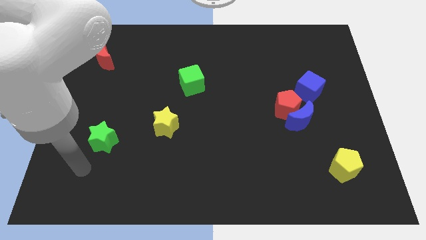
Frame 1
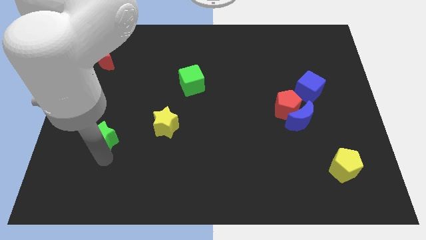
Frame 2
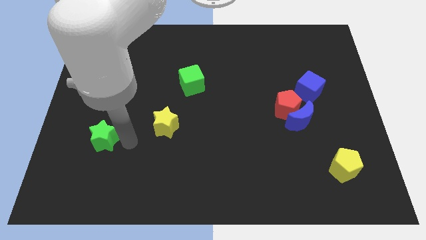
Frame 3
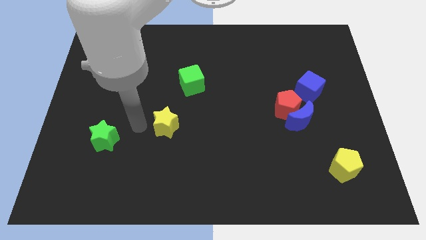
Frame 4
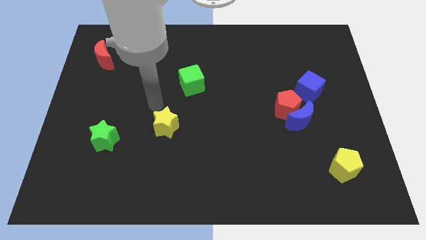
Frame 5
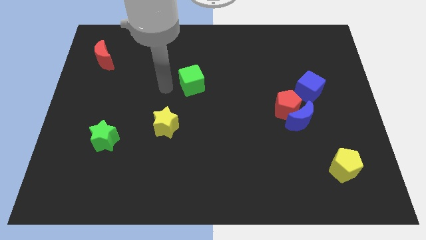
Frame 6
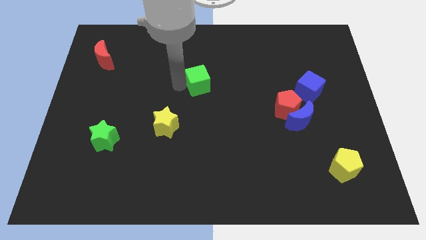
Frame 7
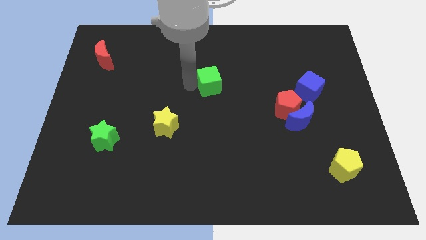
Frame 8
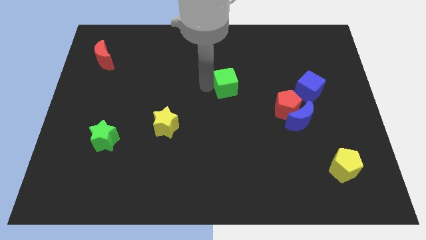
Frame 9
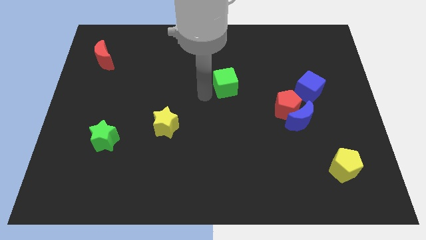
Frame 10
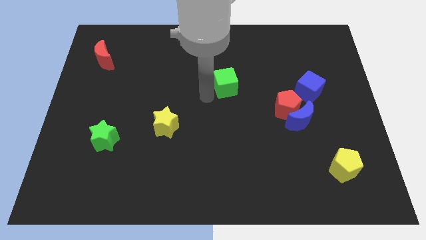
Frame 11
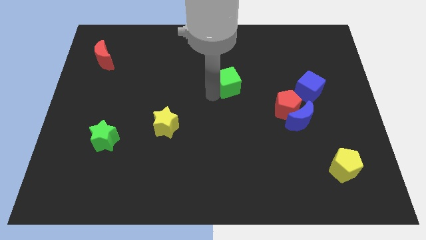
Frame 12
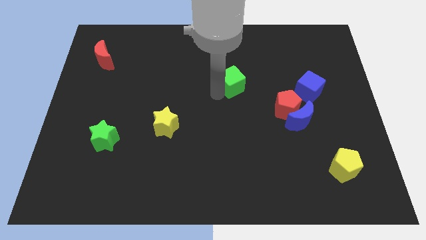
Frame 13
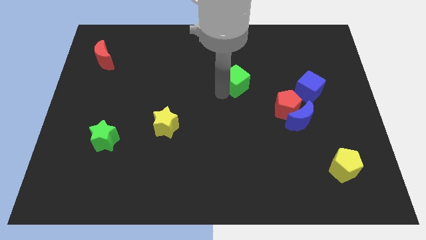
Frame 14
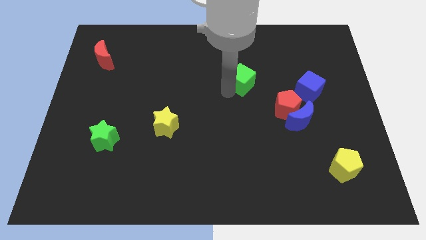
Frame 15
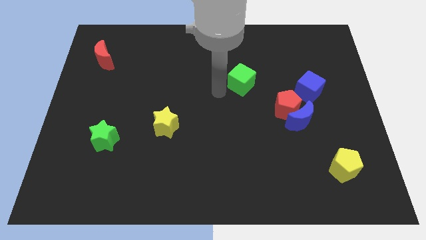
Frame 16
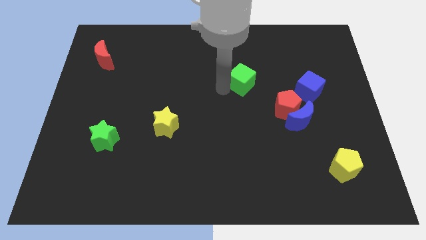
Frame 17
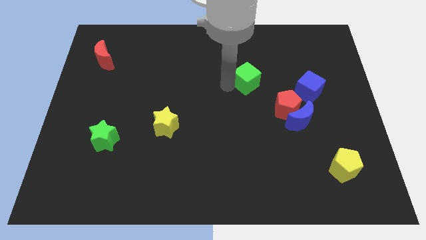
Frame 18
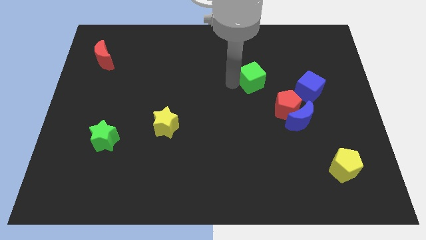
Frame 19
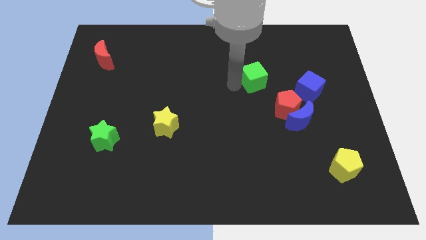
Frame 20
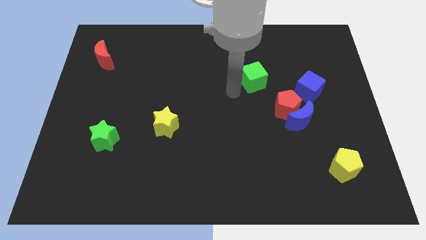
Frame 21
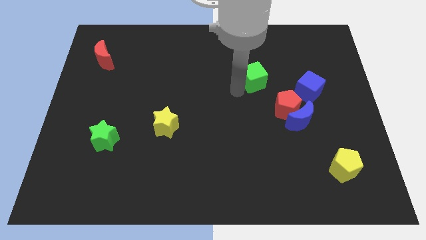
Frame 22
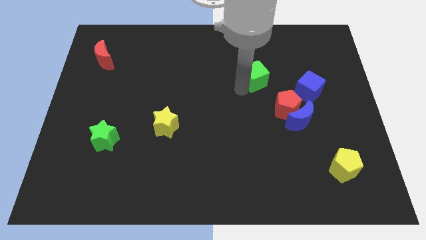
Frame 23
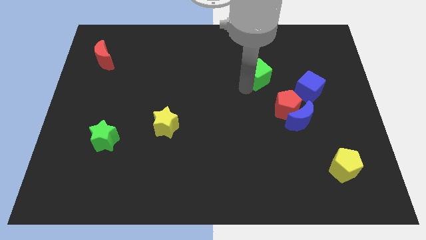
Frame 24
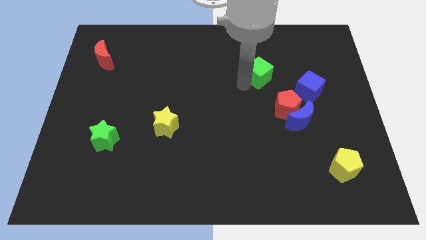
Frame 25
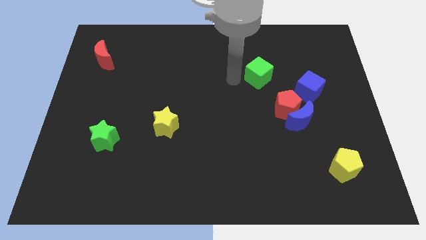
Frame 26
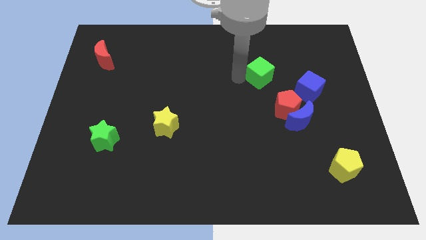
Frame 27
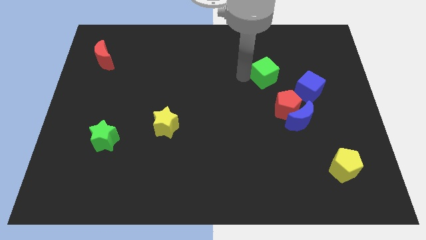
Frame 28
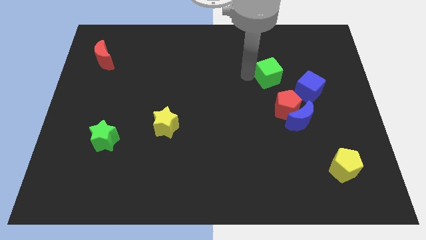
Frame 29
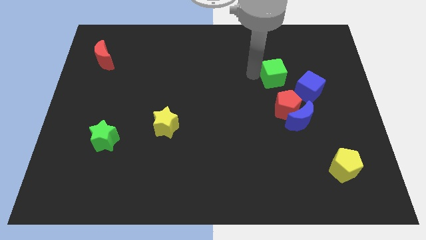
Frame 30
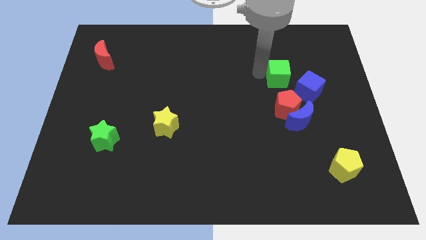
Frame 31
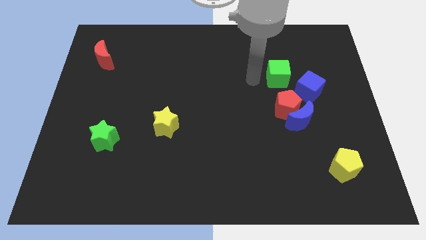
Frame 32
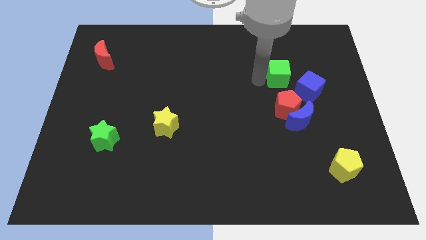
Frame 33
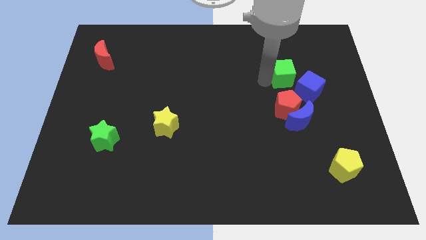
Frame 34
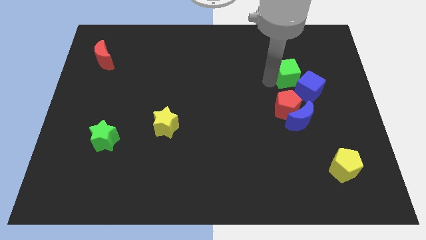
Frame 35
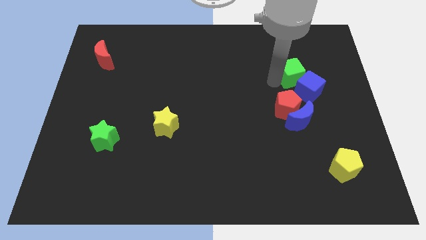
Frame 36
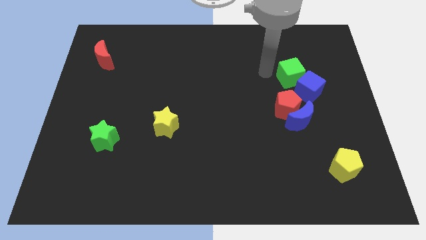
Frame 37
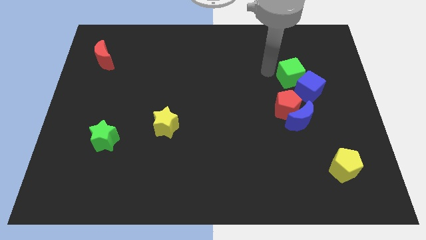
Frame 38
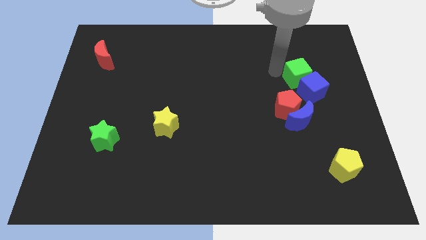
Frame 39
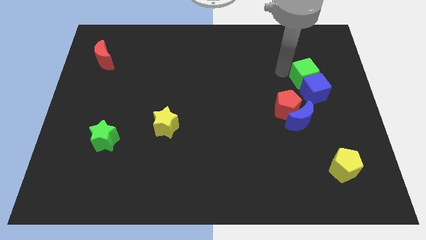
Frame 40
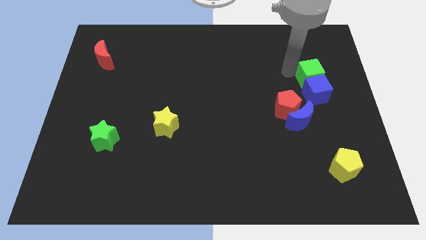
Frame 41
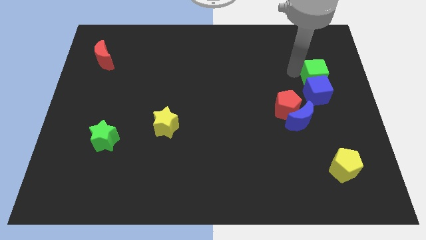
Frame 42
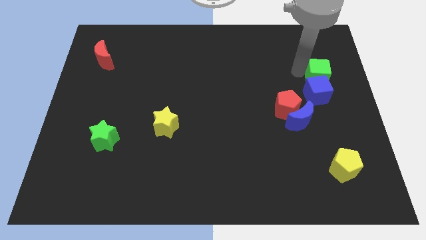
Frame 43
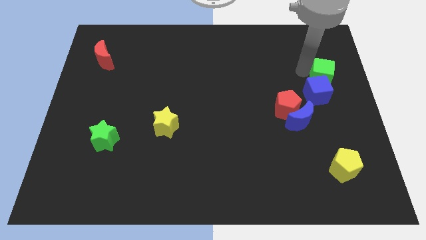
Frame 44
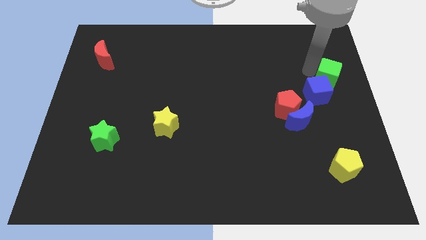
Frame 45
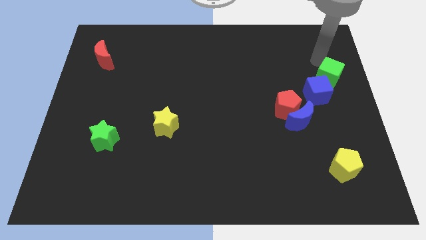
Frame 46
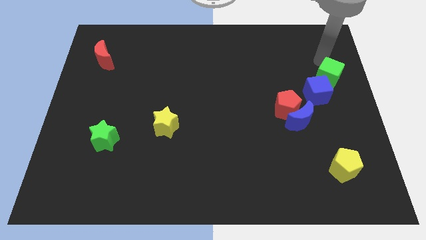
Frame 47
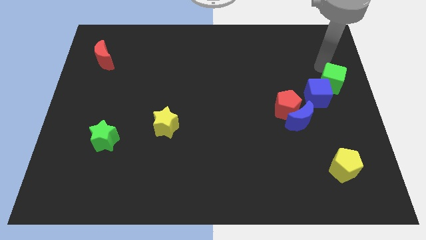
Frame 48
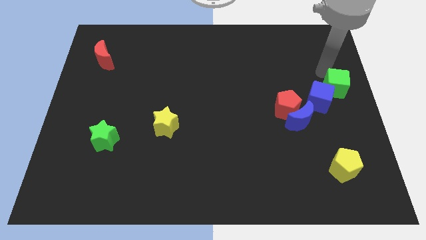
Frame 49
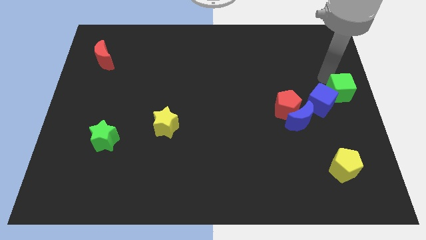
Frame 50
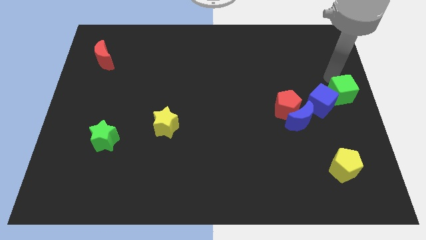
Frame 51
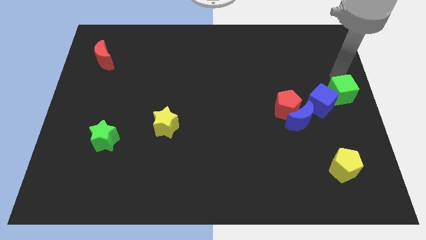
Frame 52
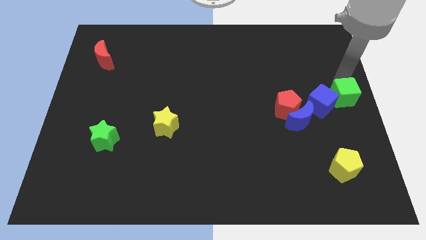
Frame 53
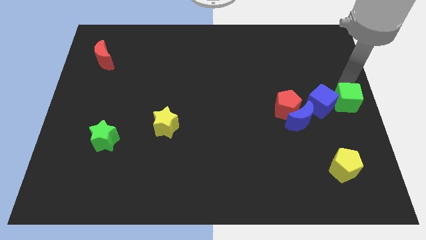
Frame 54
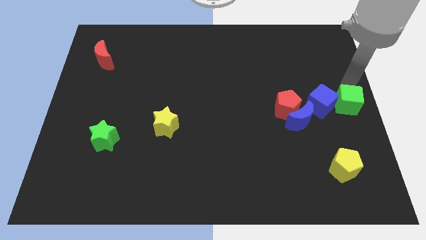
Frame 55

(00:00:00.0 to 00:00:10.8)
move the green cube to the bottom right side of the blue cube

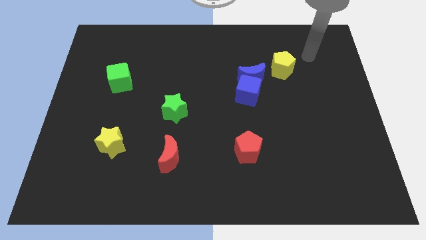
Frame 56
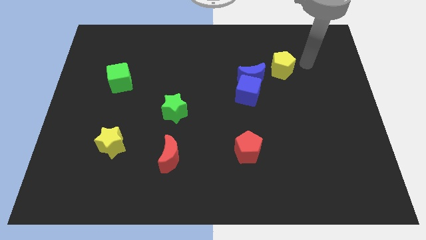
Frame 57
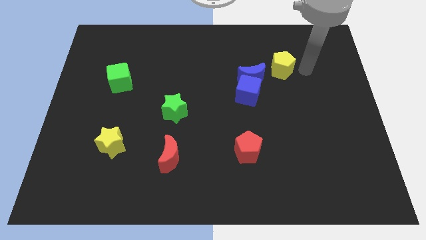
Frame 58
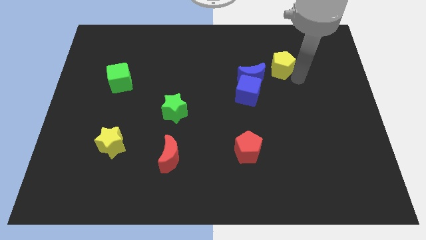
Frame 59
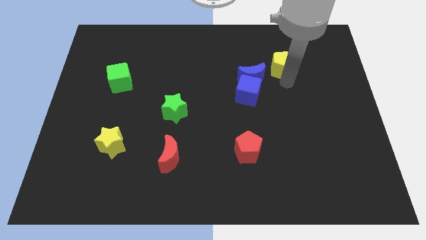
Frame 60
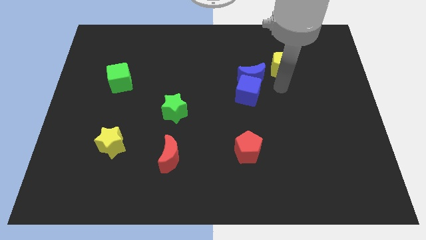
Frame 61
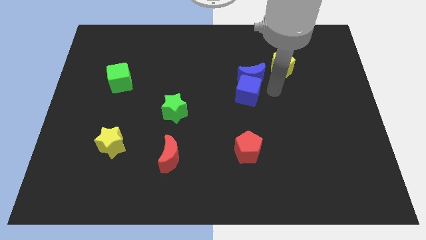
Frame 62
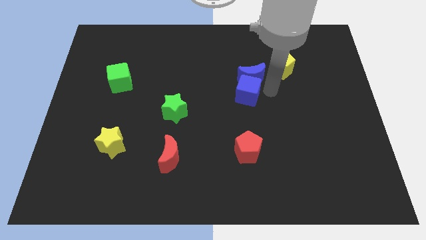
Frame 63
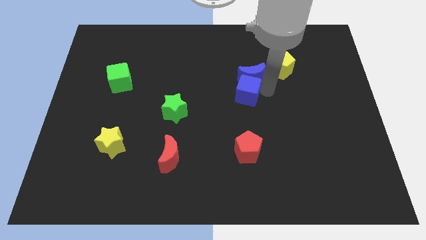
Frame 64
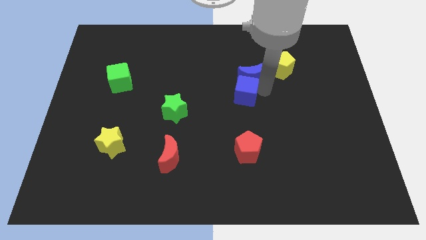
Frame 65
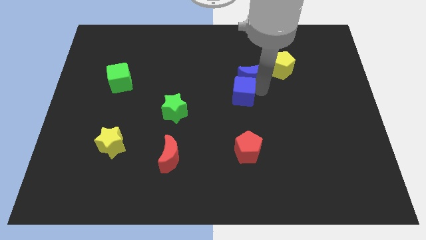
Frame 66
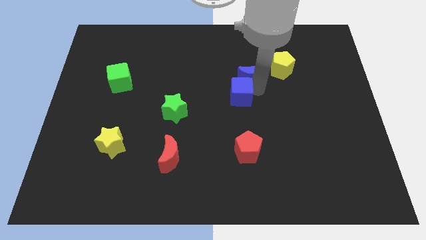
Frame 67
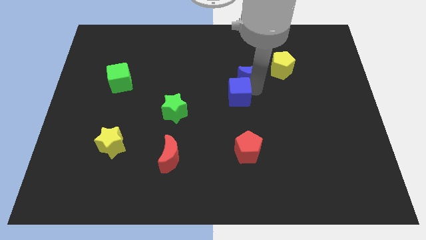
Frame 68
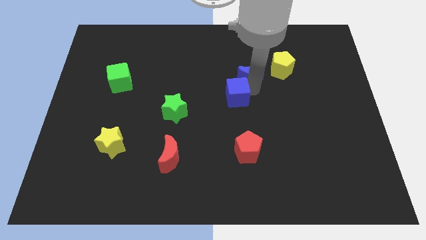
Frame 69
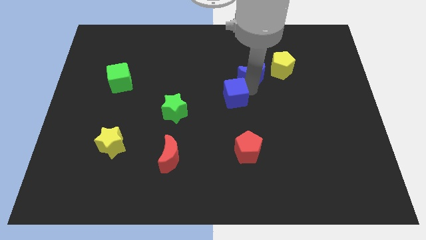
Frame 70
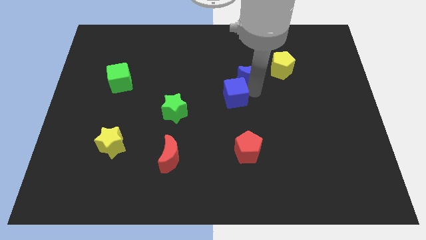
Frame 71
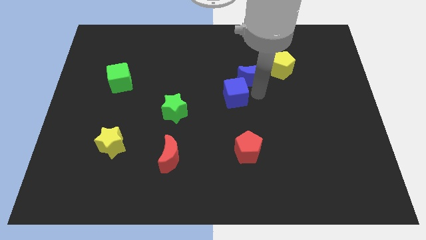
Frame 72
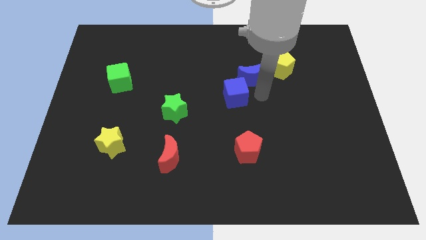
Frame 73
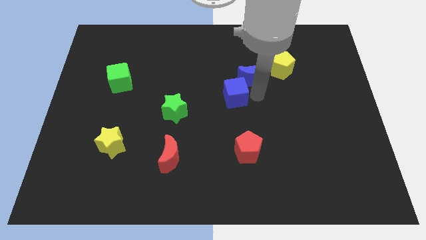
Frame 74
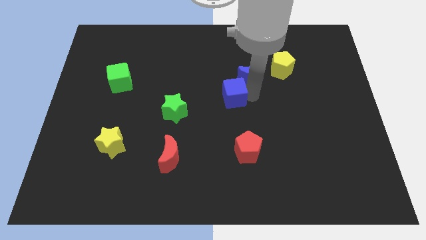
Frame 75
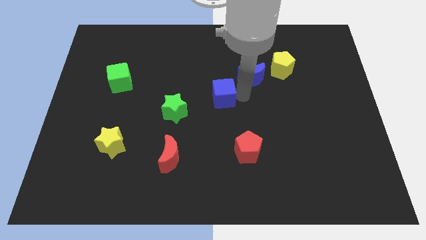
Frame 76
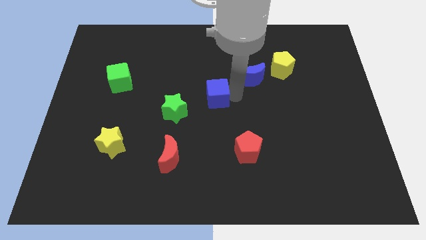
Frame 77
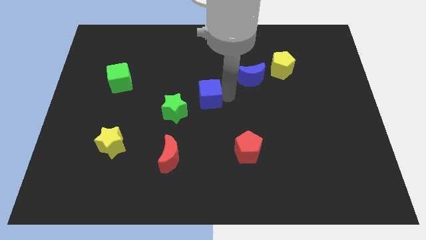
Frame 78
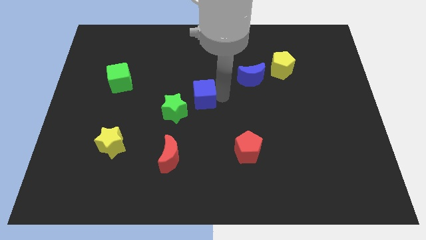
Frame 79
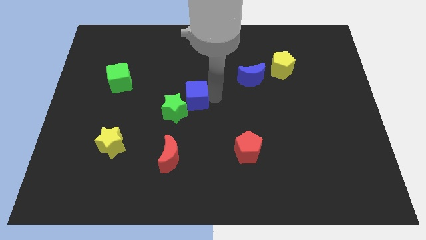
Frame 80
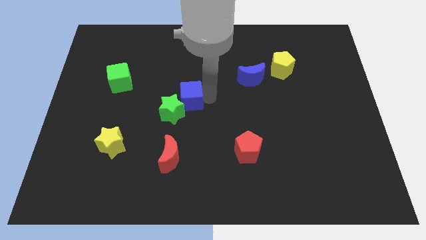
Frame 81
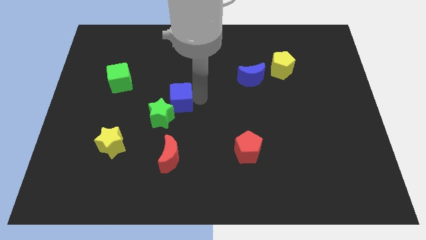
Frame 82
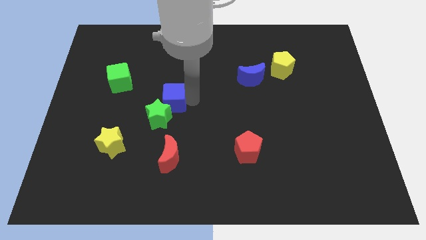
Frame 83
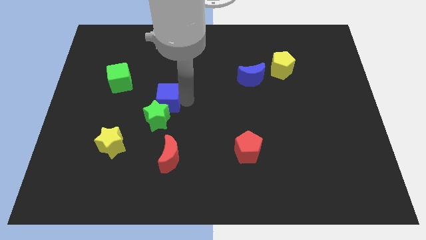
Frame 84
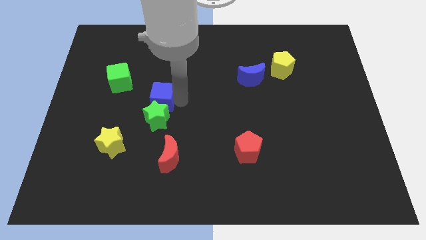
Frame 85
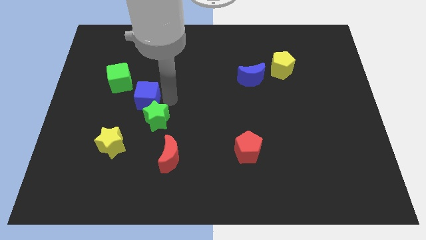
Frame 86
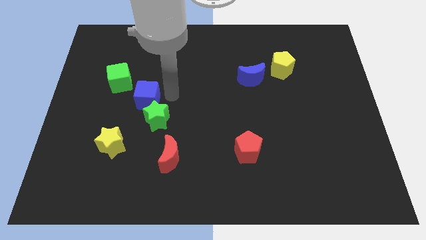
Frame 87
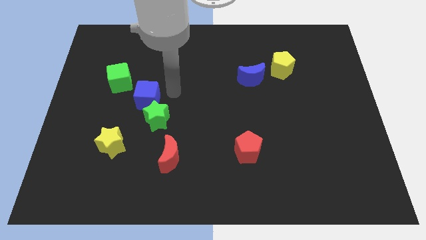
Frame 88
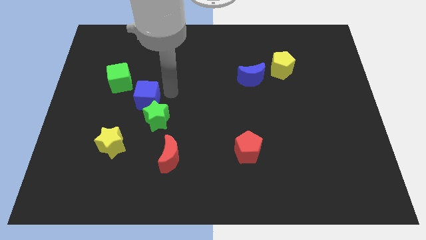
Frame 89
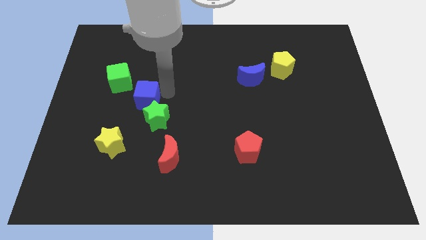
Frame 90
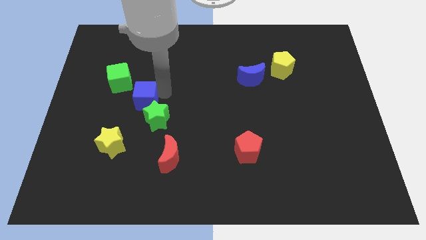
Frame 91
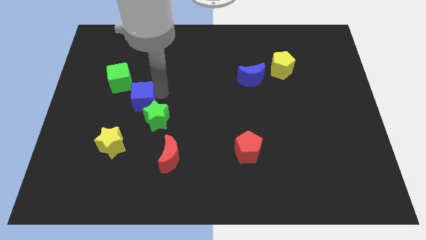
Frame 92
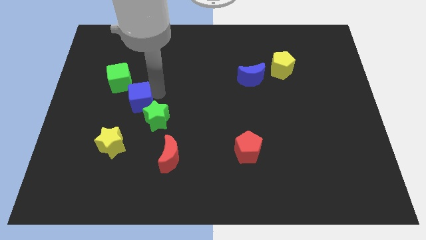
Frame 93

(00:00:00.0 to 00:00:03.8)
put the blue cube above the yellow star
